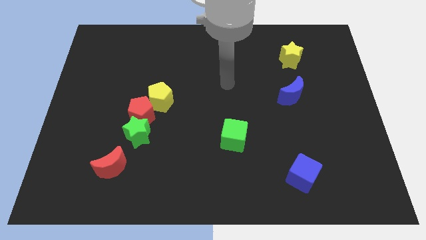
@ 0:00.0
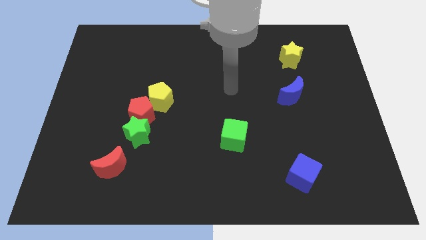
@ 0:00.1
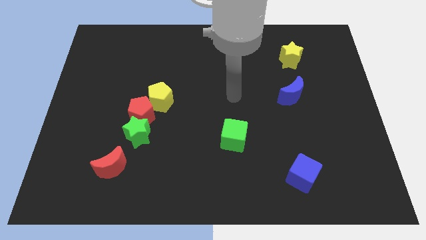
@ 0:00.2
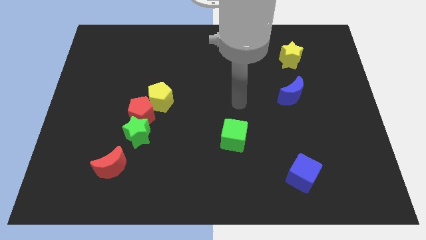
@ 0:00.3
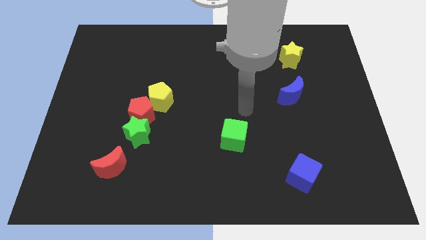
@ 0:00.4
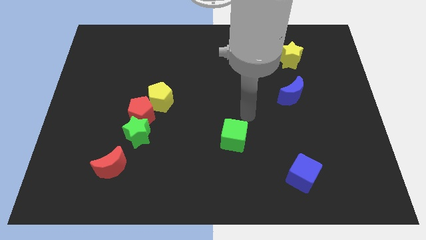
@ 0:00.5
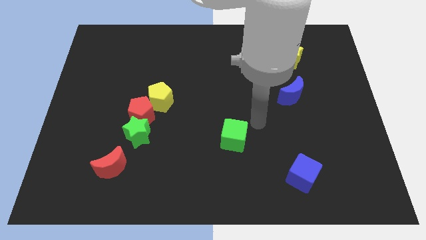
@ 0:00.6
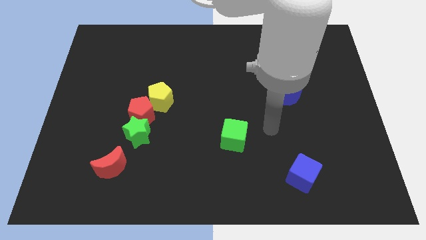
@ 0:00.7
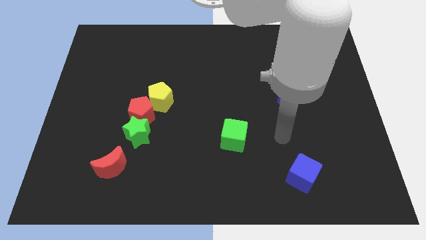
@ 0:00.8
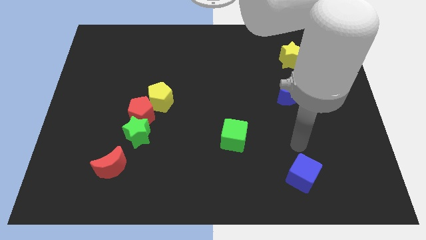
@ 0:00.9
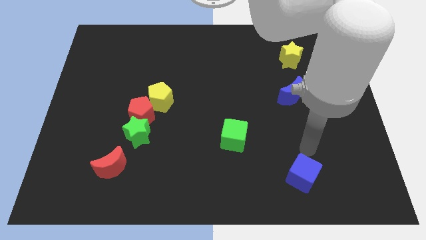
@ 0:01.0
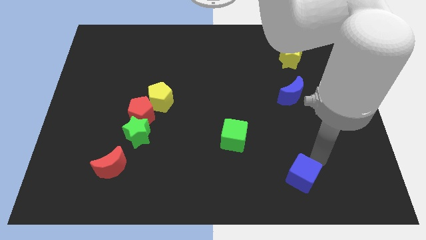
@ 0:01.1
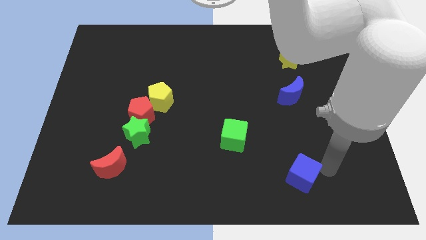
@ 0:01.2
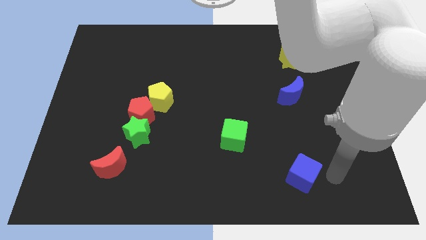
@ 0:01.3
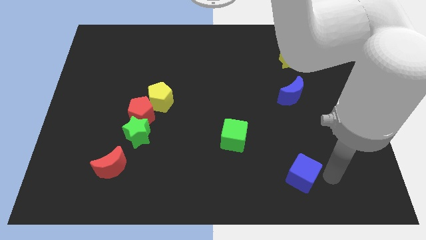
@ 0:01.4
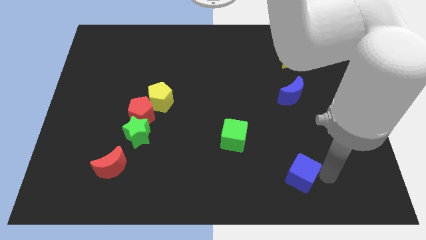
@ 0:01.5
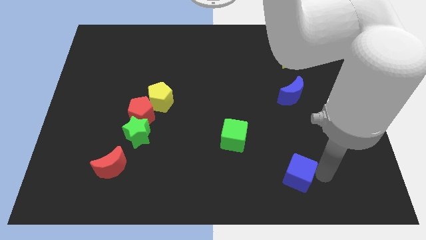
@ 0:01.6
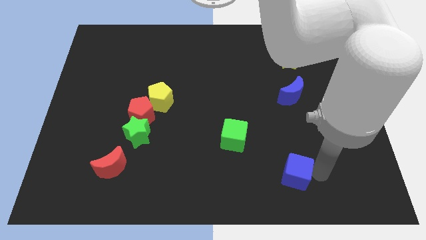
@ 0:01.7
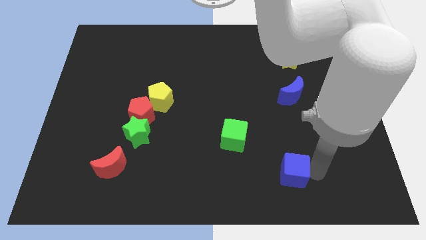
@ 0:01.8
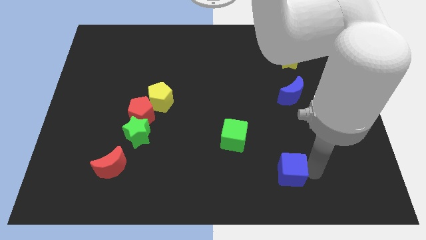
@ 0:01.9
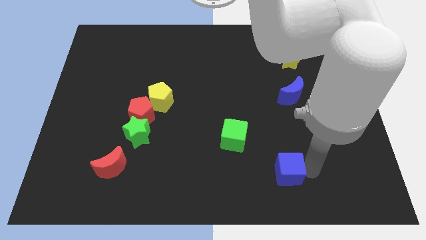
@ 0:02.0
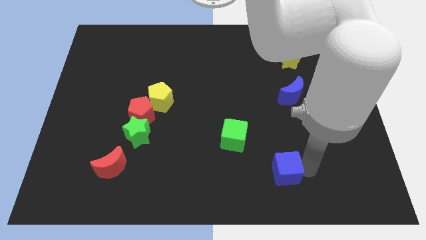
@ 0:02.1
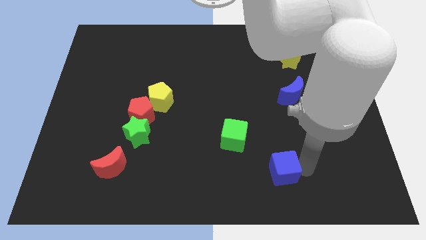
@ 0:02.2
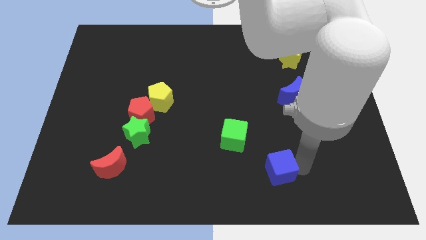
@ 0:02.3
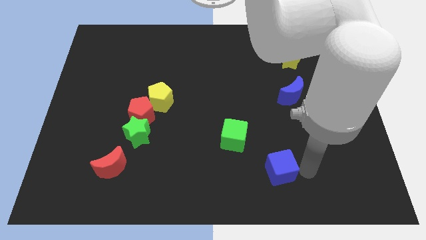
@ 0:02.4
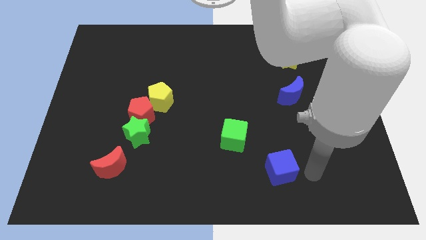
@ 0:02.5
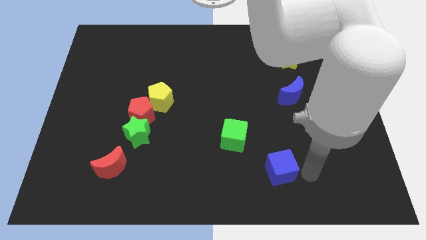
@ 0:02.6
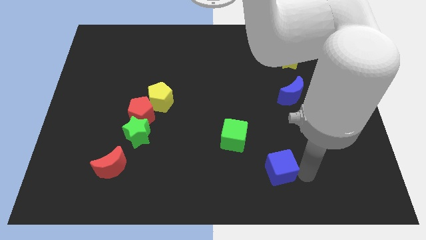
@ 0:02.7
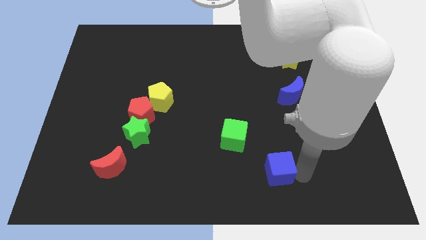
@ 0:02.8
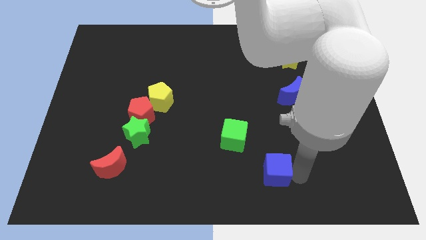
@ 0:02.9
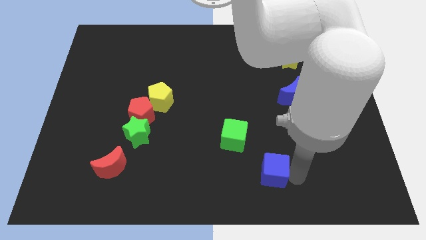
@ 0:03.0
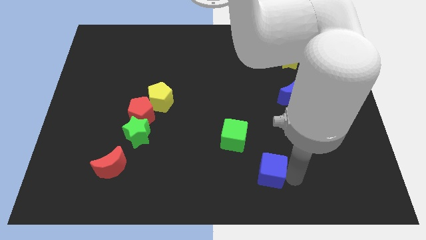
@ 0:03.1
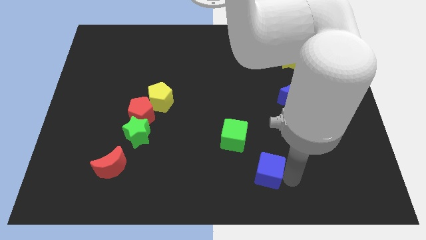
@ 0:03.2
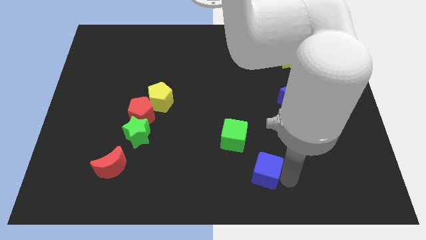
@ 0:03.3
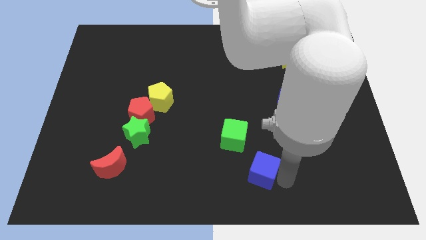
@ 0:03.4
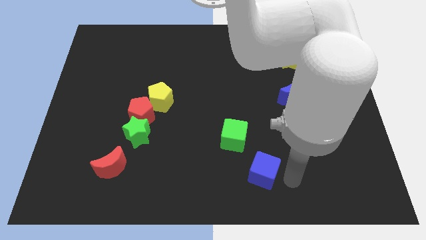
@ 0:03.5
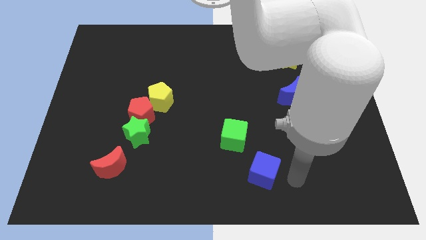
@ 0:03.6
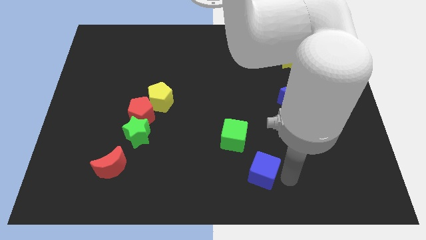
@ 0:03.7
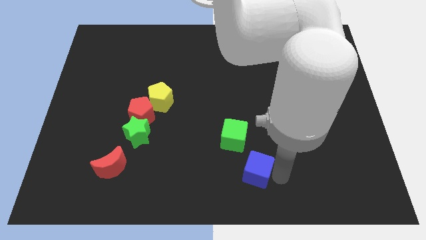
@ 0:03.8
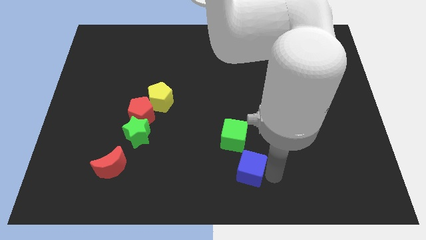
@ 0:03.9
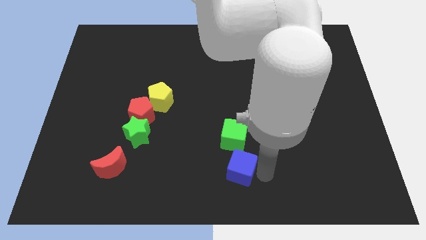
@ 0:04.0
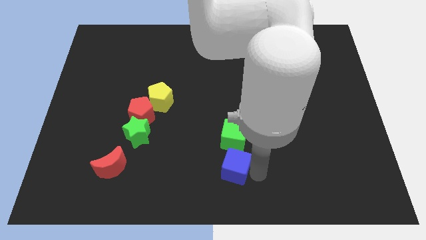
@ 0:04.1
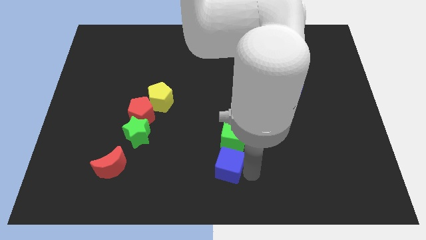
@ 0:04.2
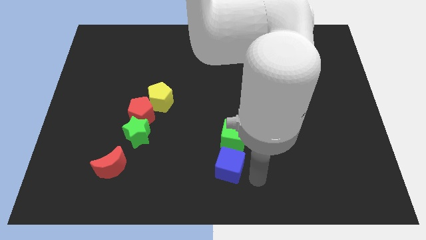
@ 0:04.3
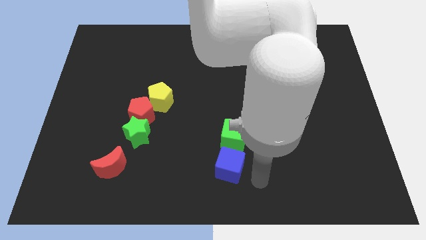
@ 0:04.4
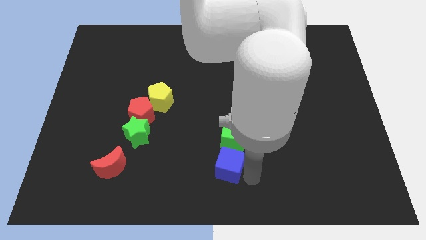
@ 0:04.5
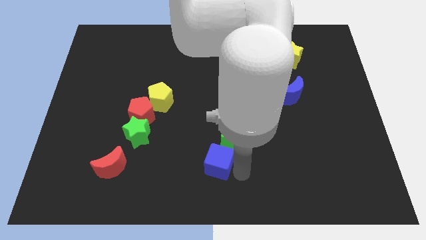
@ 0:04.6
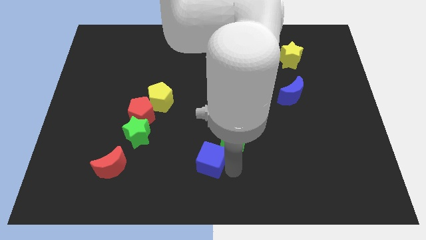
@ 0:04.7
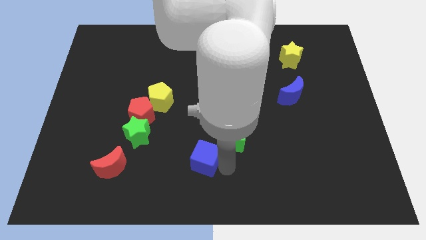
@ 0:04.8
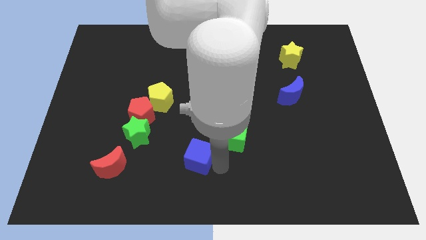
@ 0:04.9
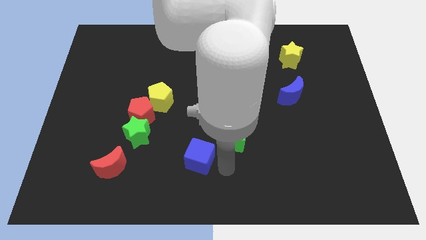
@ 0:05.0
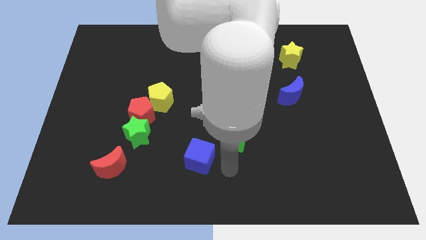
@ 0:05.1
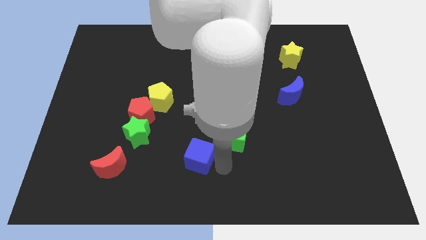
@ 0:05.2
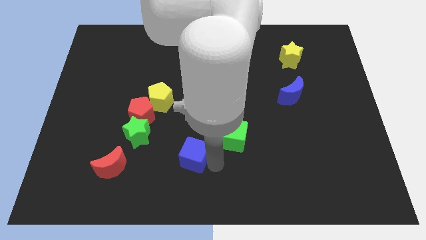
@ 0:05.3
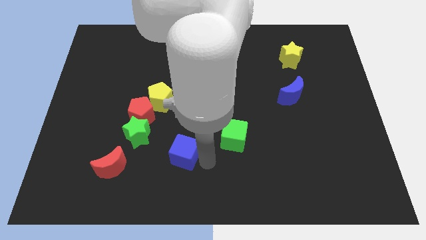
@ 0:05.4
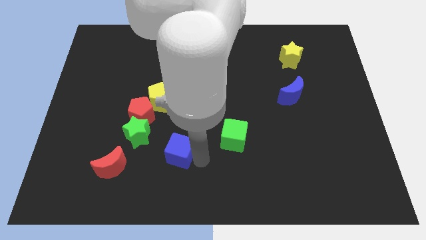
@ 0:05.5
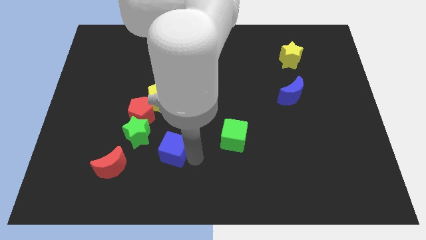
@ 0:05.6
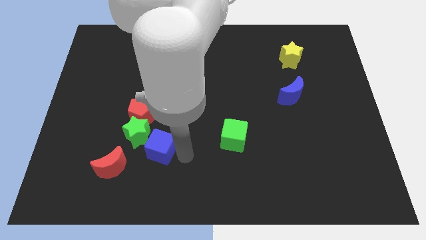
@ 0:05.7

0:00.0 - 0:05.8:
slide the blue cube to the green star

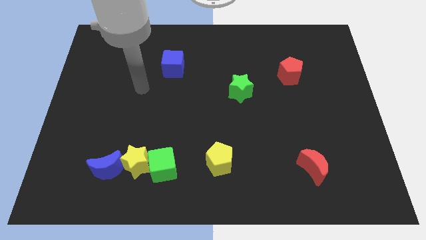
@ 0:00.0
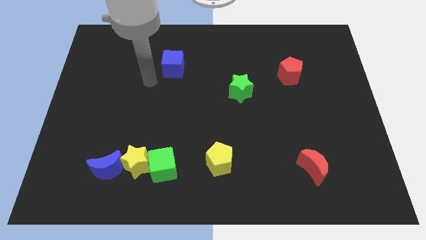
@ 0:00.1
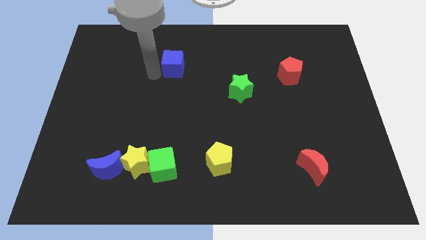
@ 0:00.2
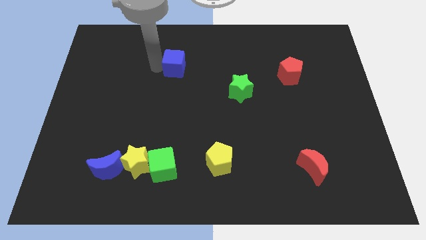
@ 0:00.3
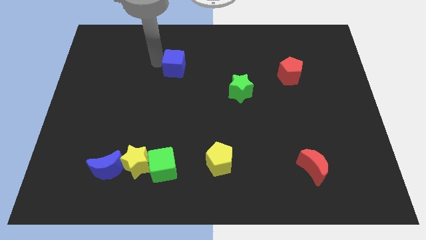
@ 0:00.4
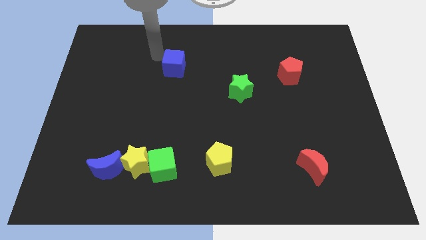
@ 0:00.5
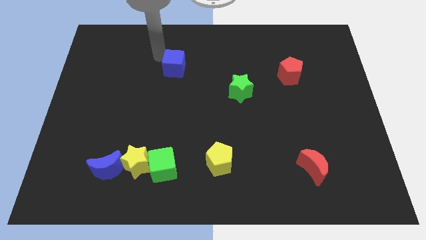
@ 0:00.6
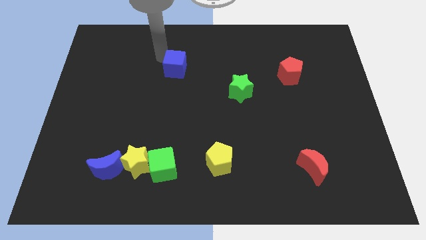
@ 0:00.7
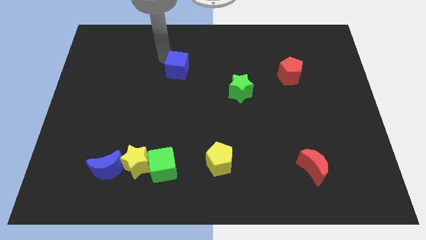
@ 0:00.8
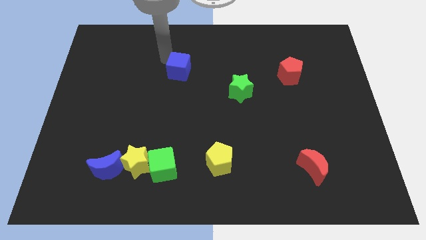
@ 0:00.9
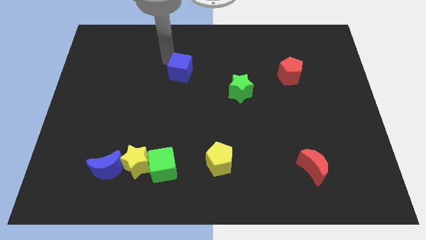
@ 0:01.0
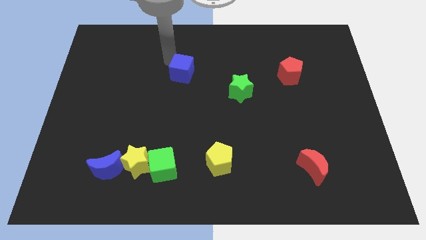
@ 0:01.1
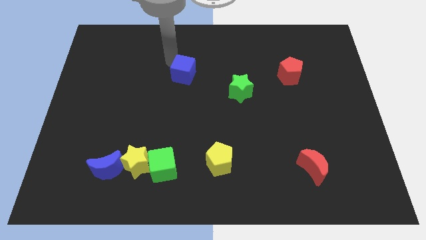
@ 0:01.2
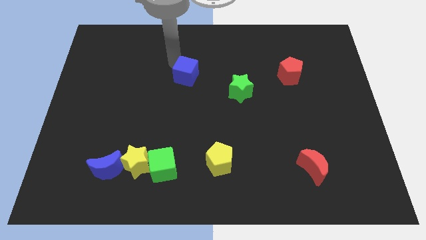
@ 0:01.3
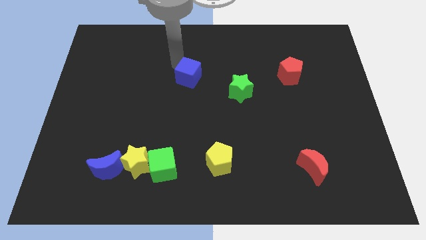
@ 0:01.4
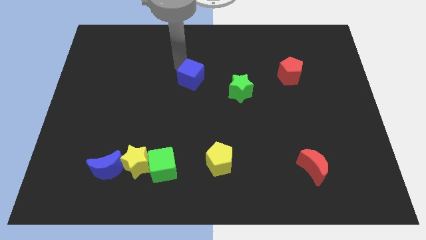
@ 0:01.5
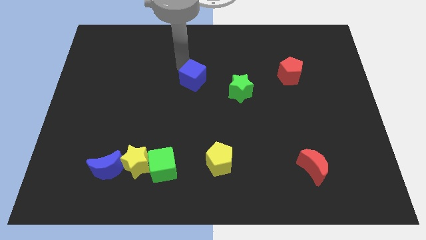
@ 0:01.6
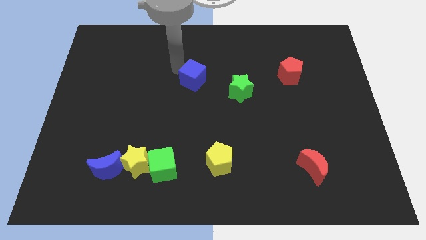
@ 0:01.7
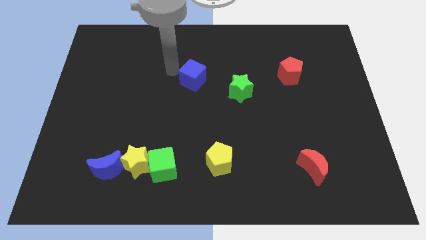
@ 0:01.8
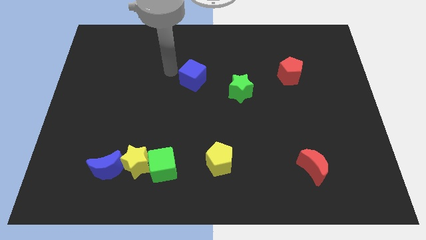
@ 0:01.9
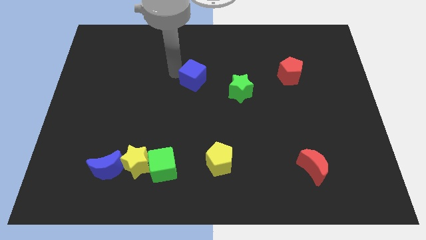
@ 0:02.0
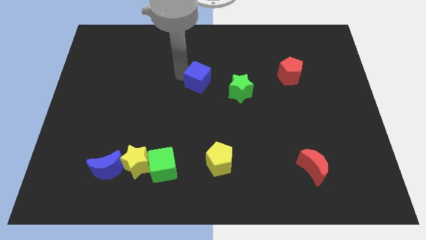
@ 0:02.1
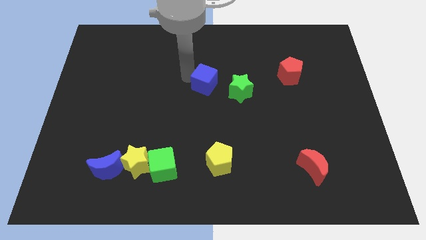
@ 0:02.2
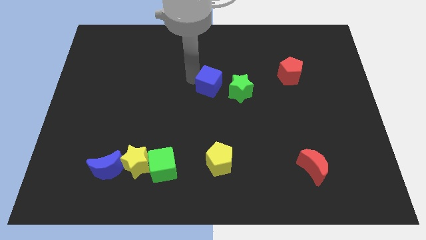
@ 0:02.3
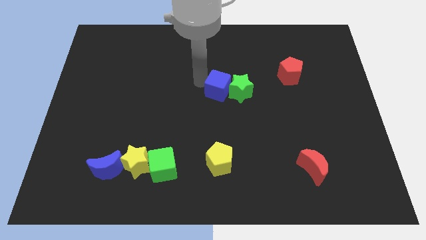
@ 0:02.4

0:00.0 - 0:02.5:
slide the blue cube towards the green star
